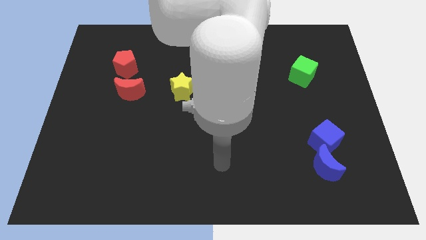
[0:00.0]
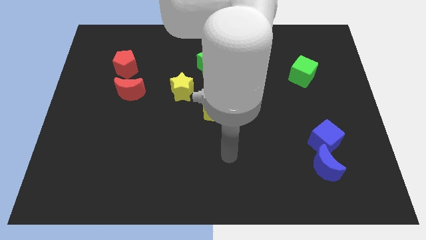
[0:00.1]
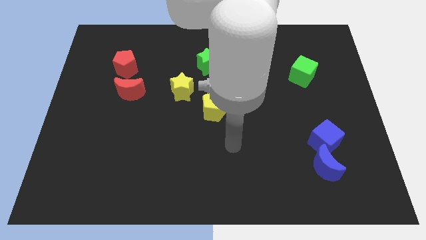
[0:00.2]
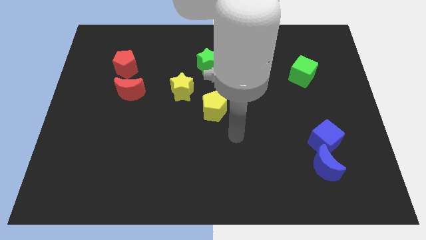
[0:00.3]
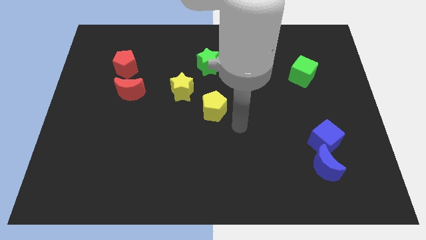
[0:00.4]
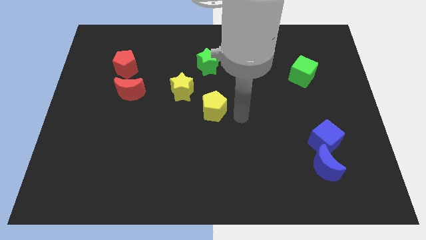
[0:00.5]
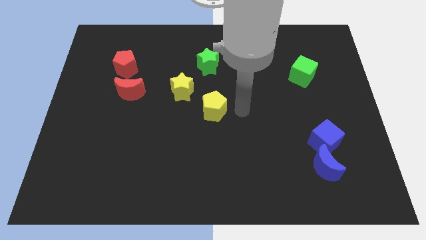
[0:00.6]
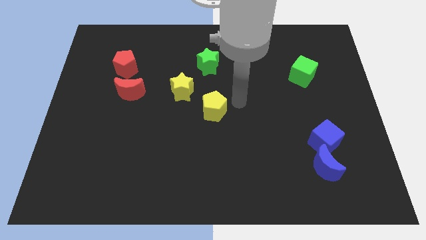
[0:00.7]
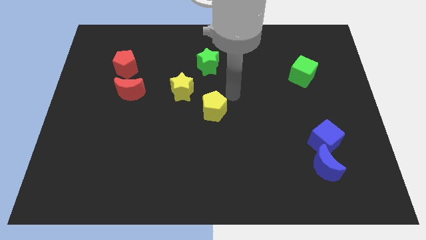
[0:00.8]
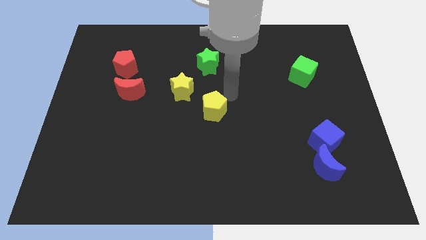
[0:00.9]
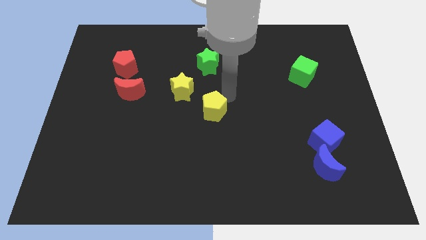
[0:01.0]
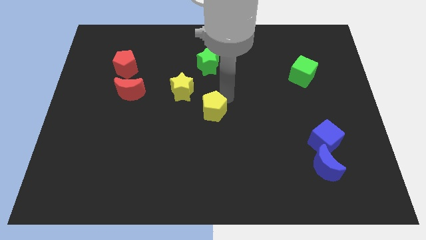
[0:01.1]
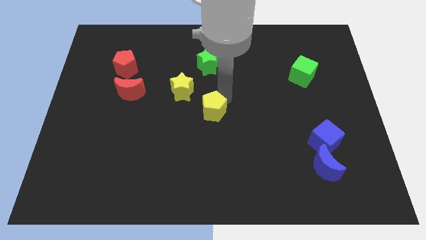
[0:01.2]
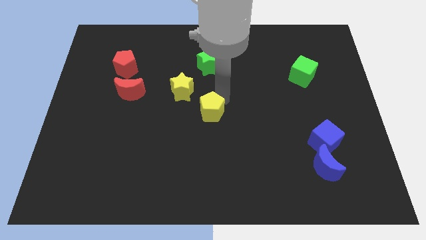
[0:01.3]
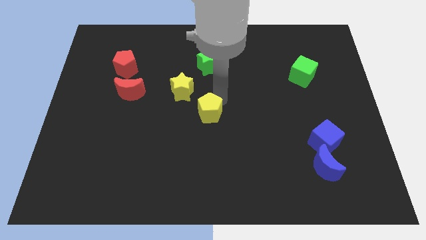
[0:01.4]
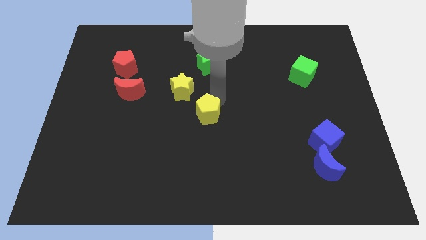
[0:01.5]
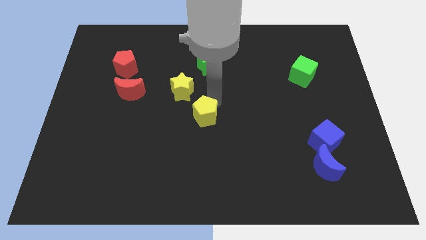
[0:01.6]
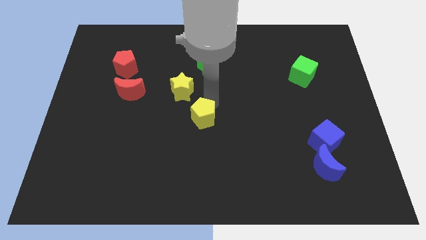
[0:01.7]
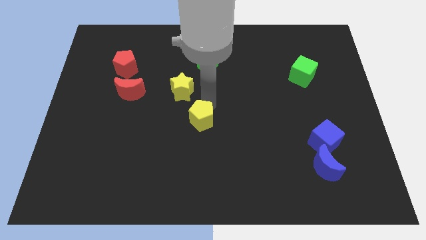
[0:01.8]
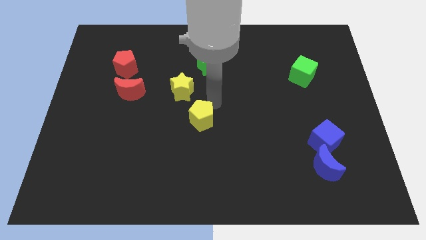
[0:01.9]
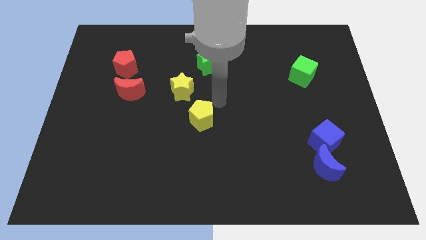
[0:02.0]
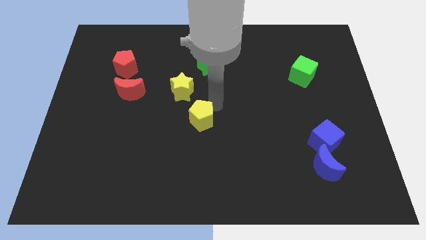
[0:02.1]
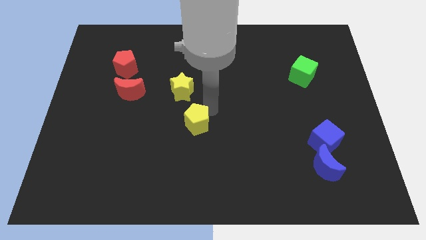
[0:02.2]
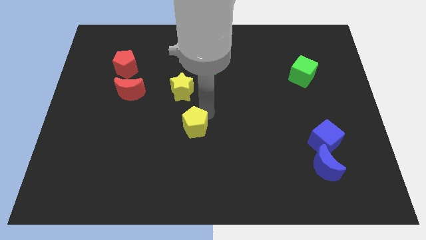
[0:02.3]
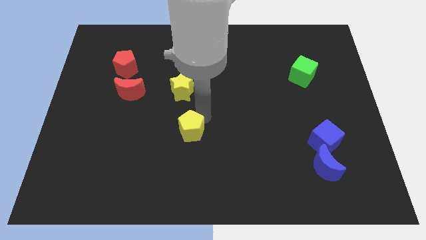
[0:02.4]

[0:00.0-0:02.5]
slightly move the yellow pentagon downwards and left diagonally

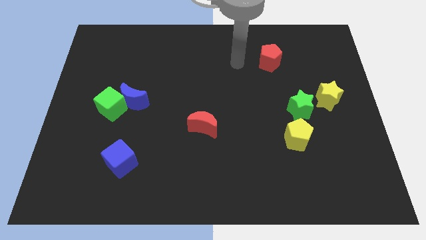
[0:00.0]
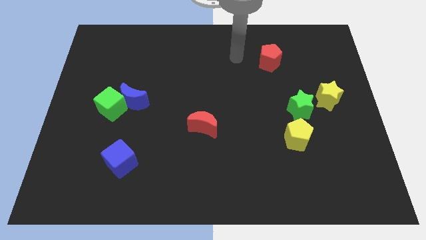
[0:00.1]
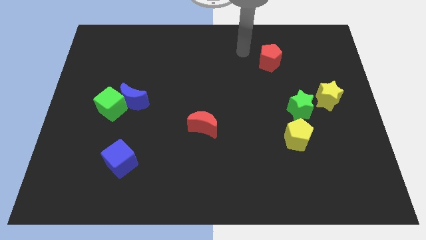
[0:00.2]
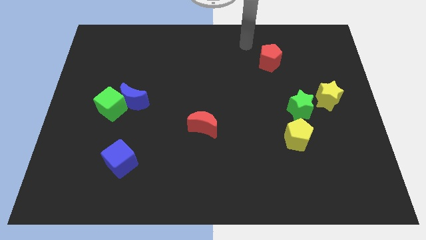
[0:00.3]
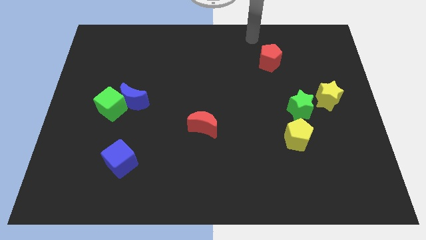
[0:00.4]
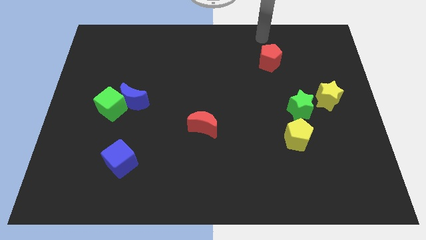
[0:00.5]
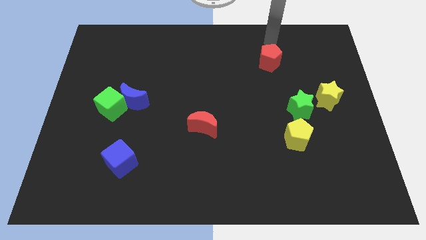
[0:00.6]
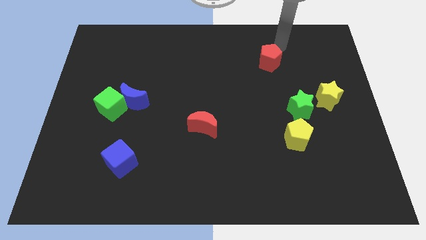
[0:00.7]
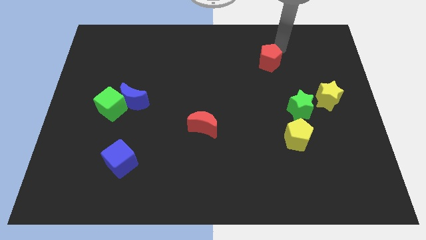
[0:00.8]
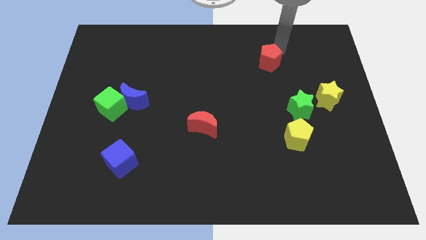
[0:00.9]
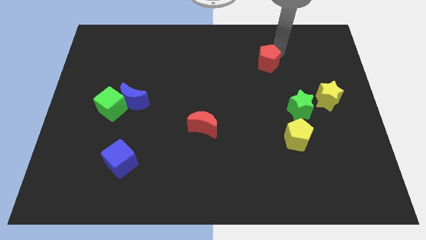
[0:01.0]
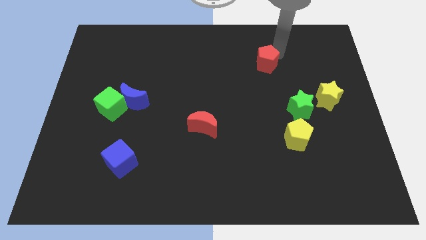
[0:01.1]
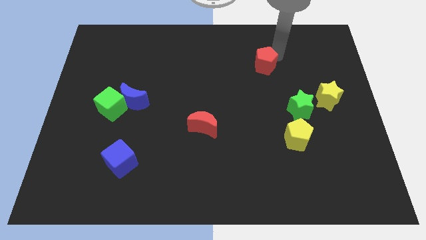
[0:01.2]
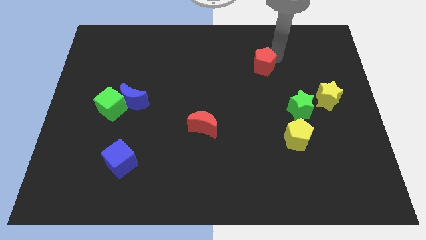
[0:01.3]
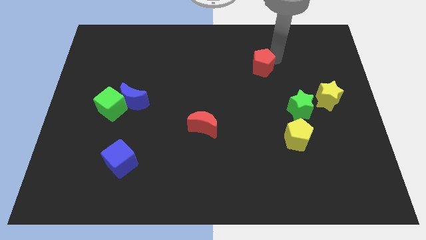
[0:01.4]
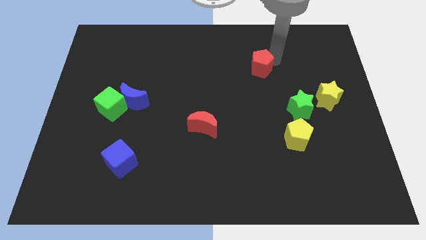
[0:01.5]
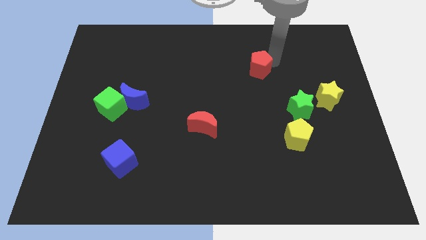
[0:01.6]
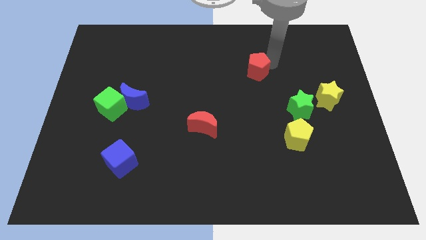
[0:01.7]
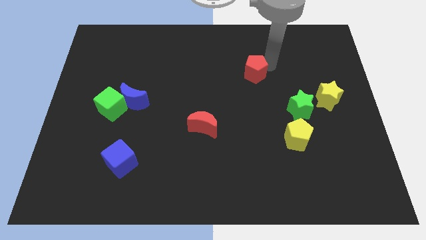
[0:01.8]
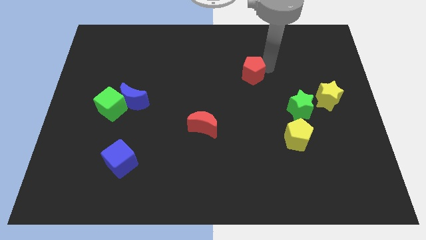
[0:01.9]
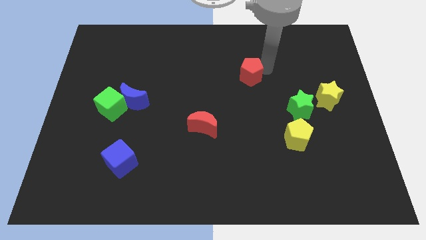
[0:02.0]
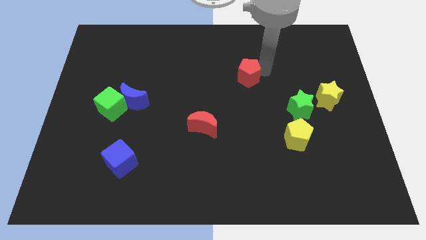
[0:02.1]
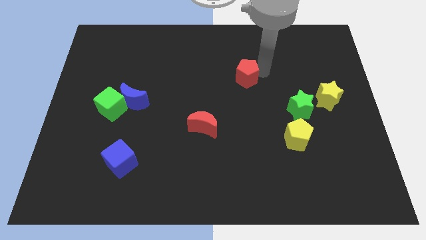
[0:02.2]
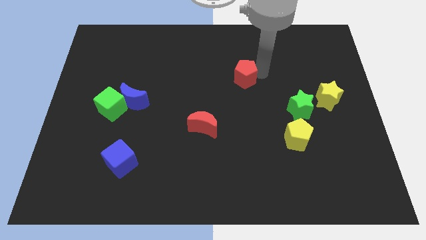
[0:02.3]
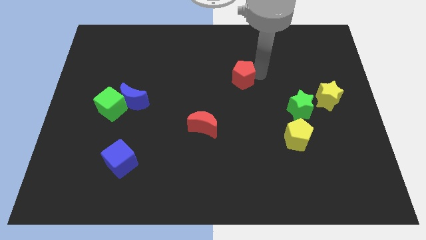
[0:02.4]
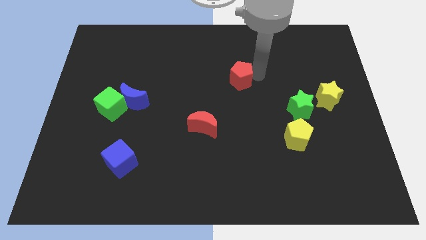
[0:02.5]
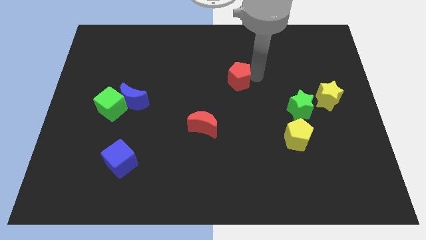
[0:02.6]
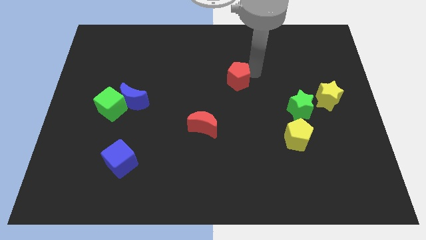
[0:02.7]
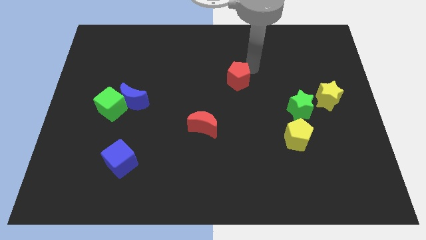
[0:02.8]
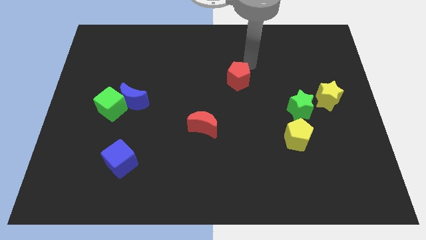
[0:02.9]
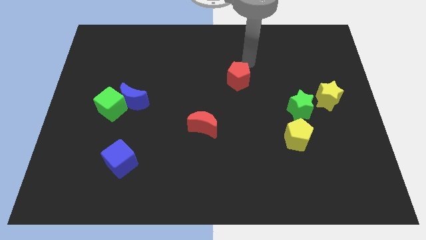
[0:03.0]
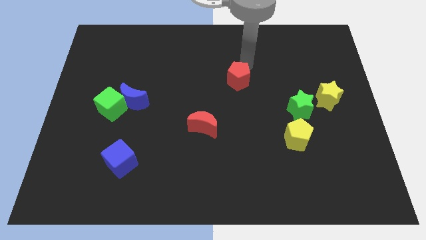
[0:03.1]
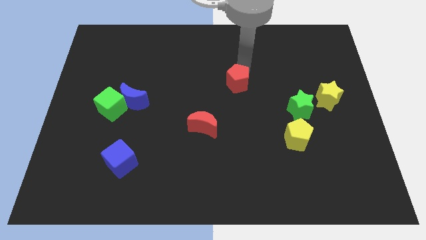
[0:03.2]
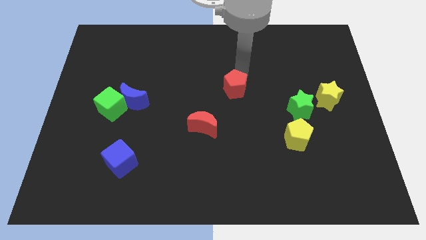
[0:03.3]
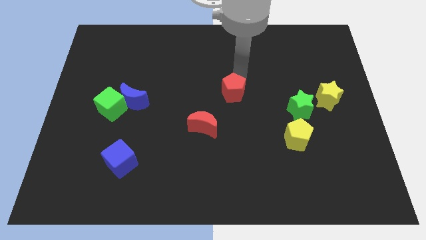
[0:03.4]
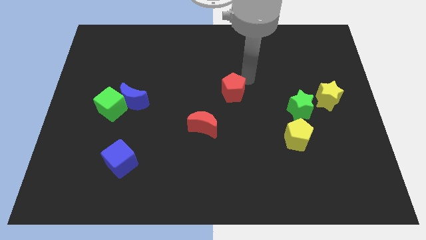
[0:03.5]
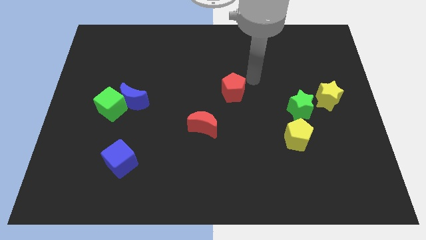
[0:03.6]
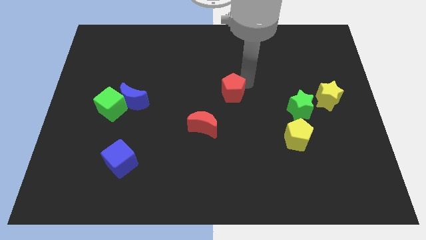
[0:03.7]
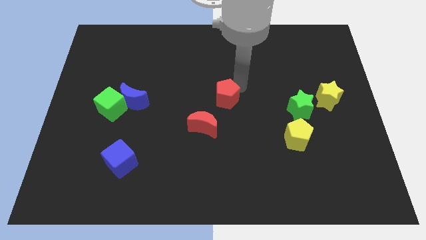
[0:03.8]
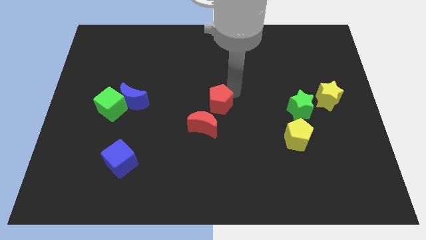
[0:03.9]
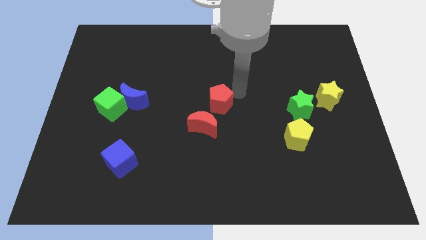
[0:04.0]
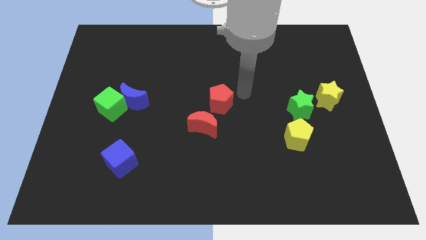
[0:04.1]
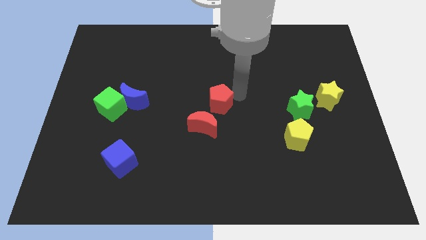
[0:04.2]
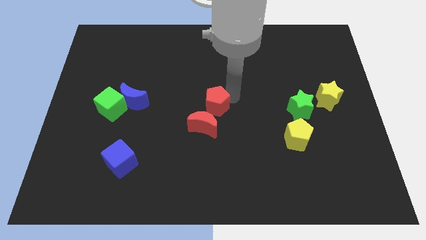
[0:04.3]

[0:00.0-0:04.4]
slide the red pentagon down and left

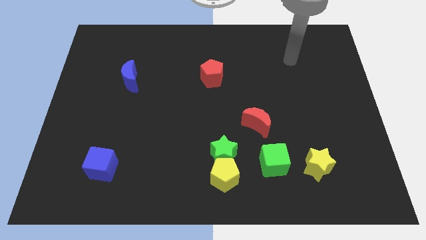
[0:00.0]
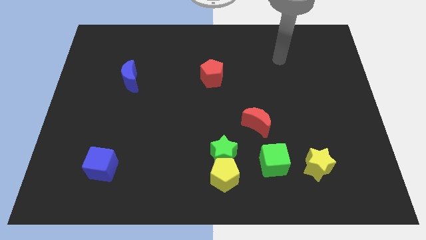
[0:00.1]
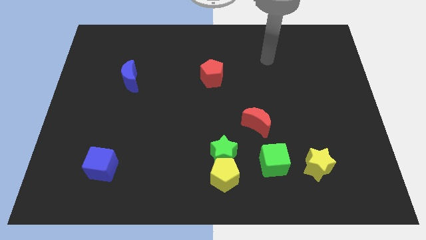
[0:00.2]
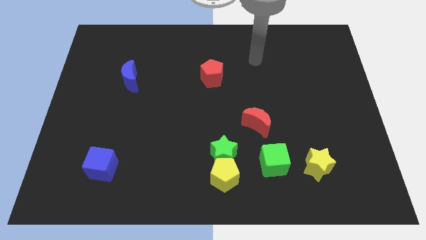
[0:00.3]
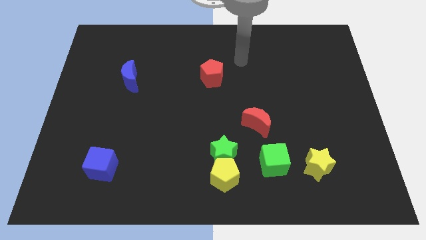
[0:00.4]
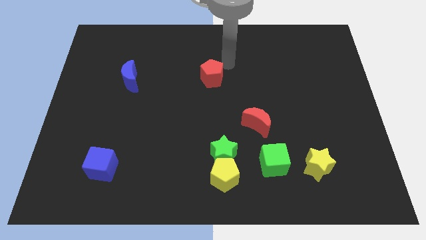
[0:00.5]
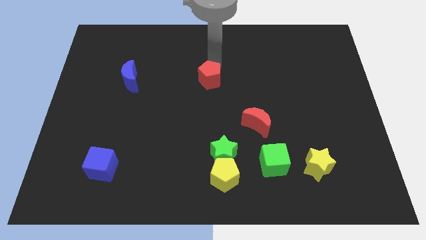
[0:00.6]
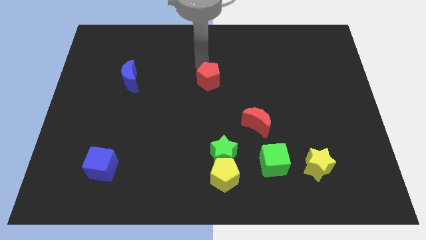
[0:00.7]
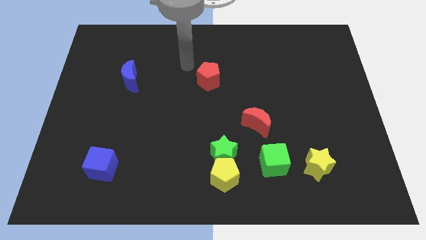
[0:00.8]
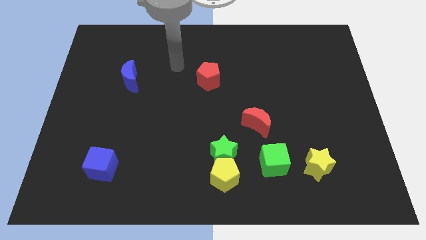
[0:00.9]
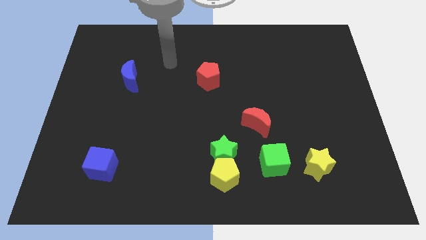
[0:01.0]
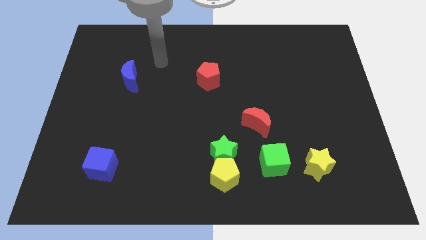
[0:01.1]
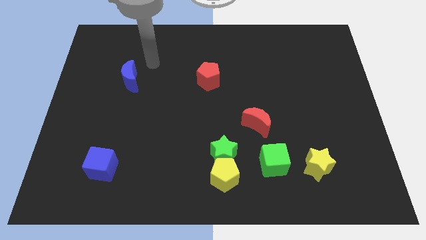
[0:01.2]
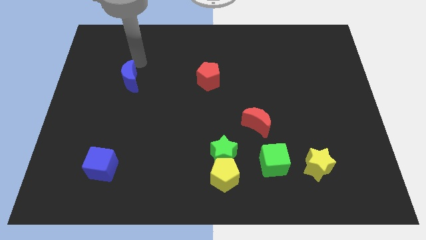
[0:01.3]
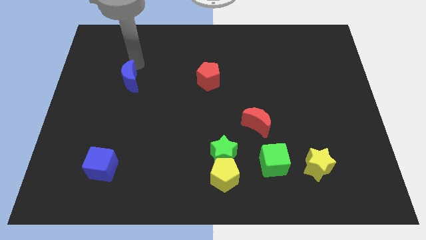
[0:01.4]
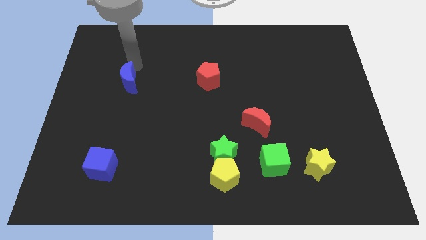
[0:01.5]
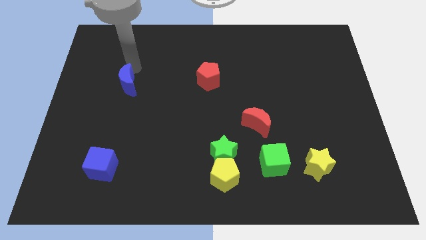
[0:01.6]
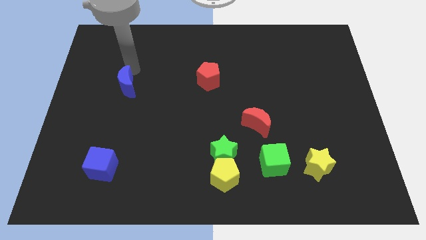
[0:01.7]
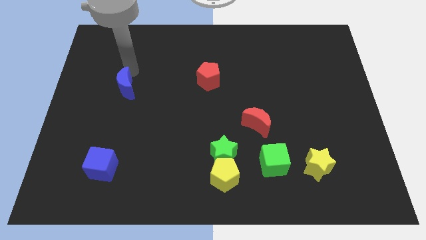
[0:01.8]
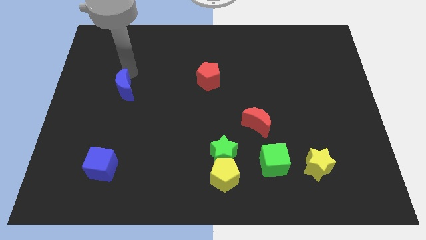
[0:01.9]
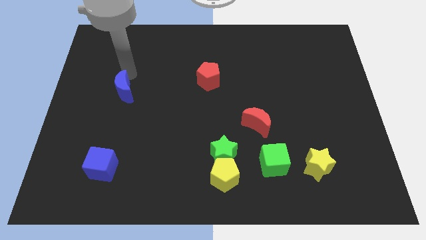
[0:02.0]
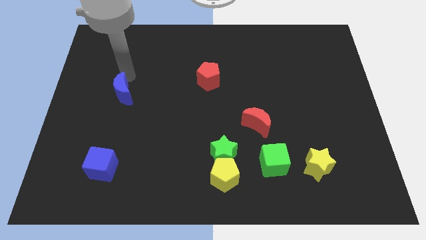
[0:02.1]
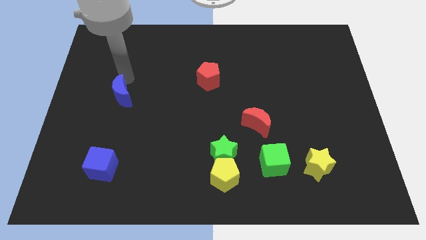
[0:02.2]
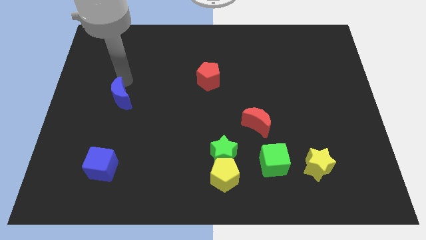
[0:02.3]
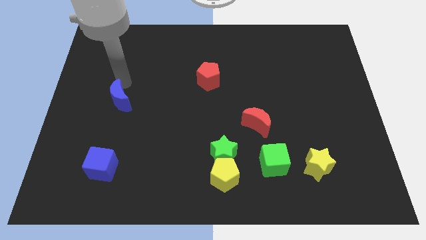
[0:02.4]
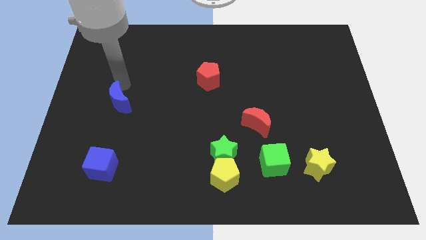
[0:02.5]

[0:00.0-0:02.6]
slightly move the blue moon downwards
